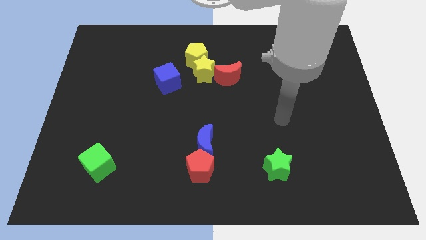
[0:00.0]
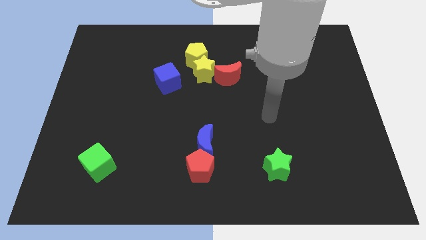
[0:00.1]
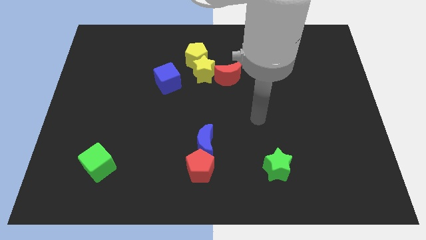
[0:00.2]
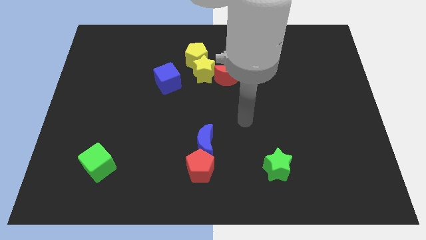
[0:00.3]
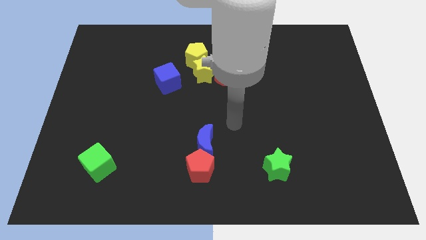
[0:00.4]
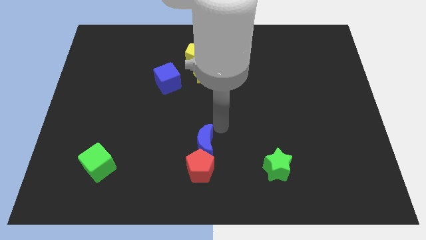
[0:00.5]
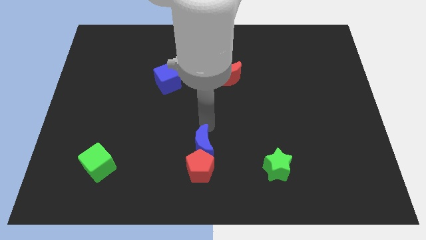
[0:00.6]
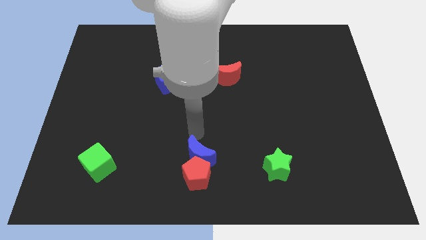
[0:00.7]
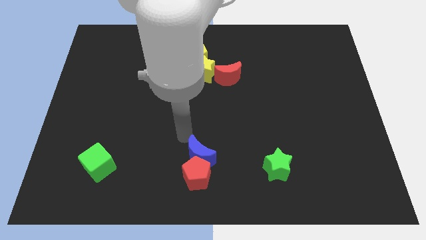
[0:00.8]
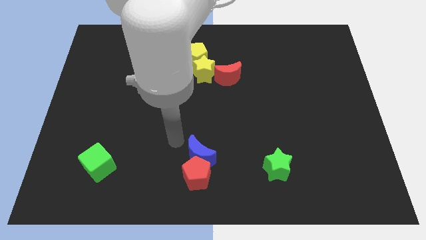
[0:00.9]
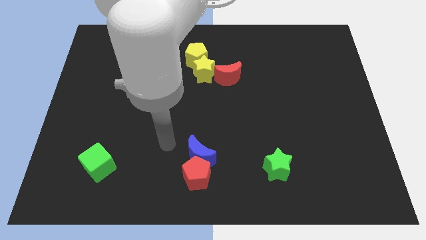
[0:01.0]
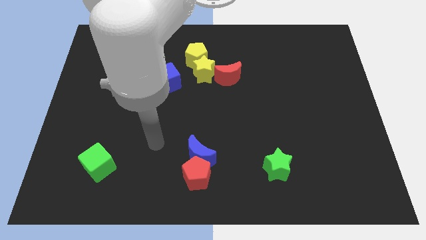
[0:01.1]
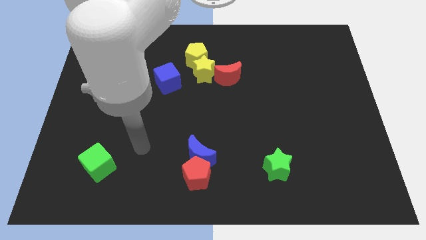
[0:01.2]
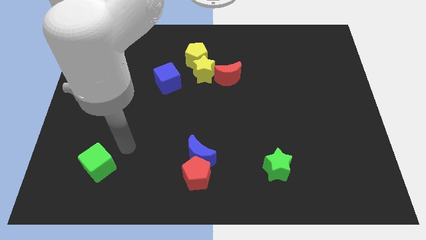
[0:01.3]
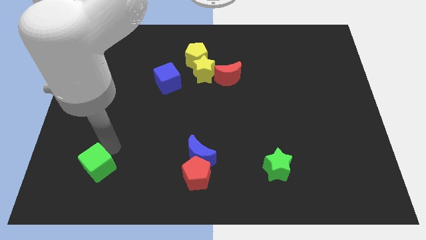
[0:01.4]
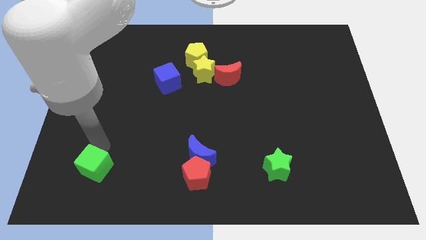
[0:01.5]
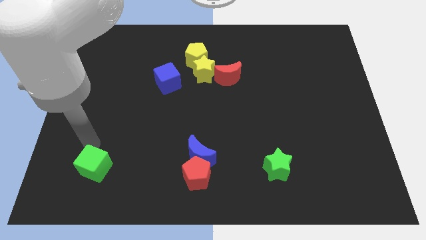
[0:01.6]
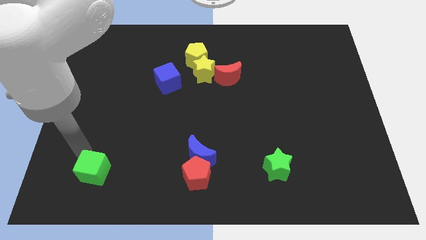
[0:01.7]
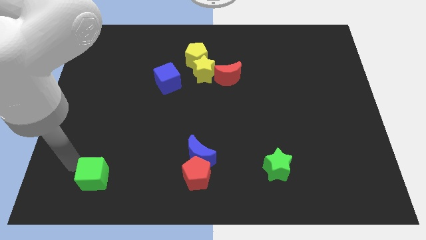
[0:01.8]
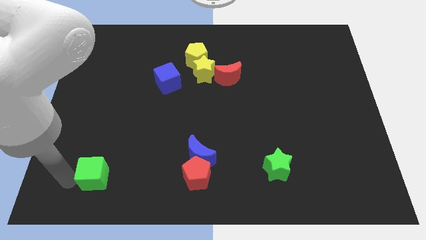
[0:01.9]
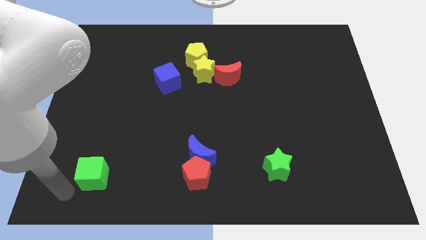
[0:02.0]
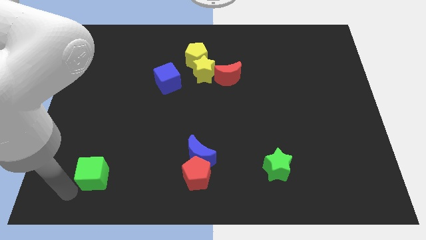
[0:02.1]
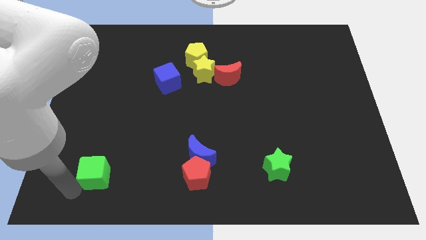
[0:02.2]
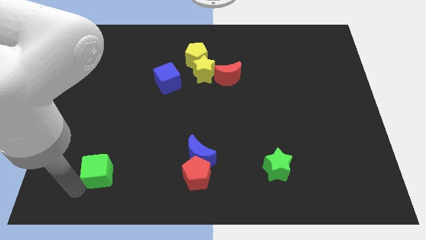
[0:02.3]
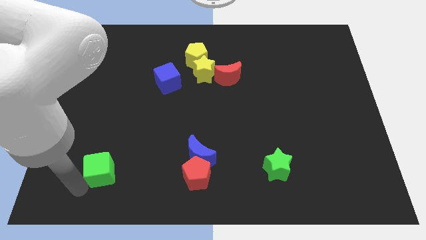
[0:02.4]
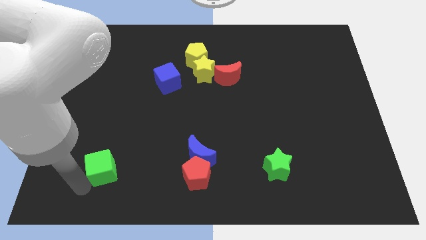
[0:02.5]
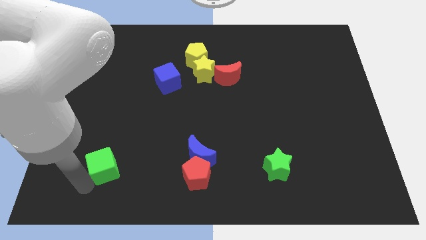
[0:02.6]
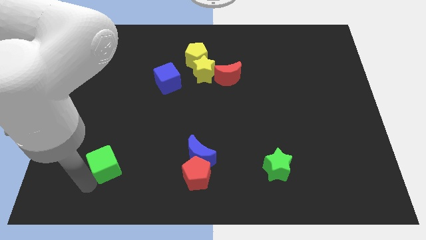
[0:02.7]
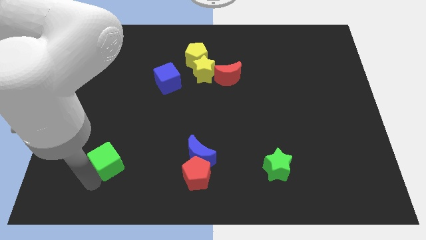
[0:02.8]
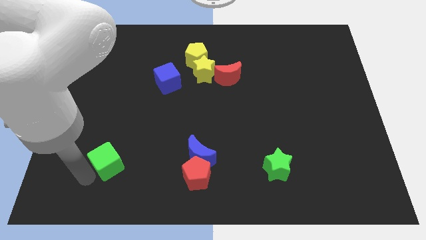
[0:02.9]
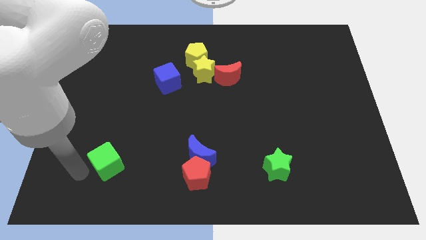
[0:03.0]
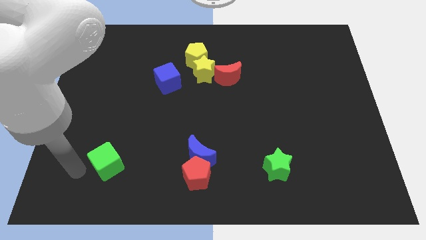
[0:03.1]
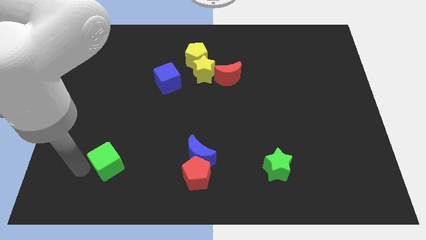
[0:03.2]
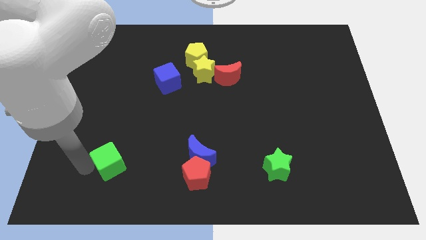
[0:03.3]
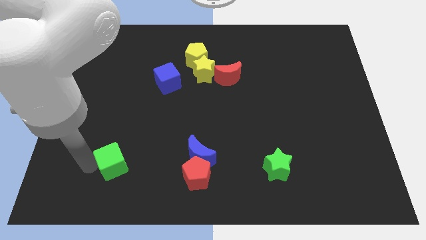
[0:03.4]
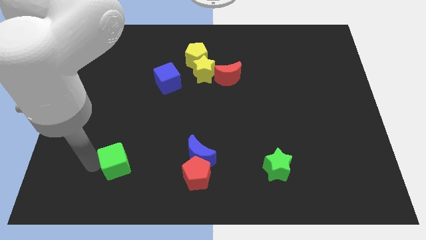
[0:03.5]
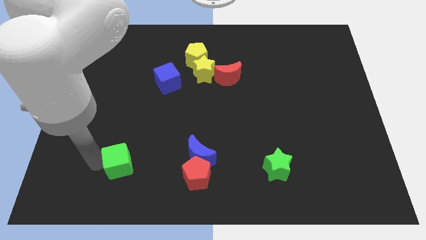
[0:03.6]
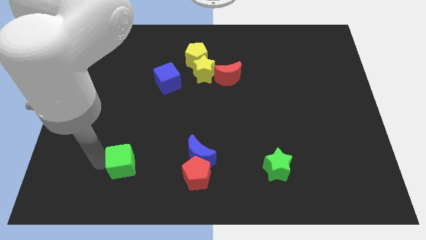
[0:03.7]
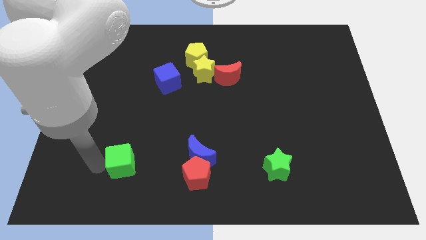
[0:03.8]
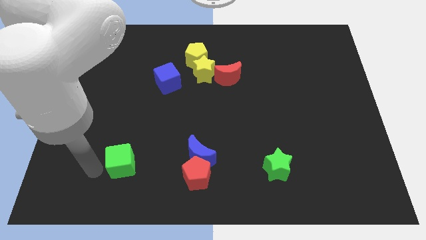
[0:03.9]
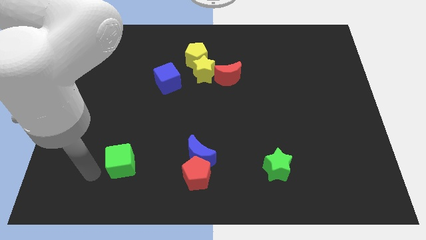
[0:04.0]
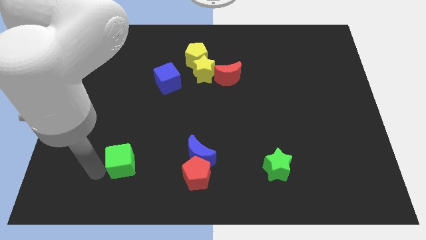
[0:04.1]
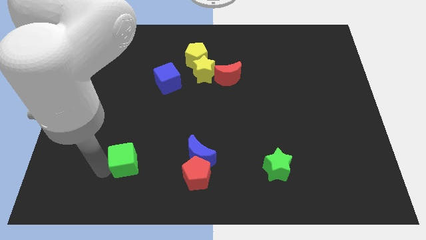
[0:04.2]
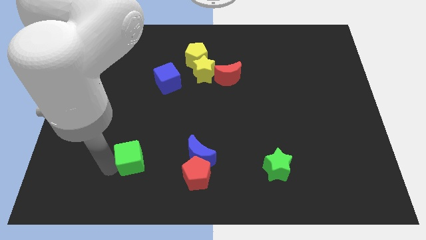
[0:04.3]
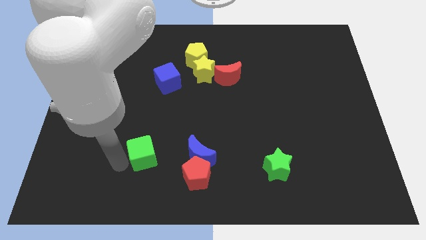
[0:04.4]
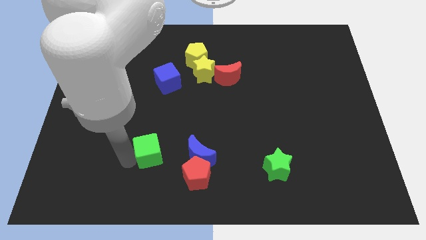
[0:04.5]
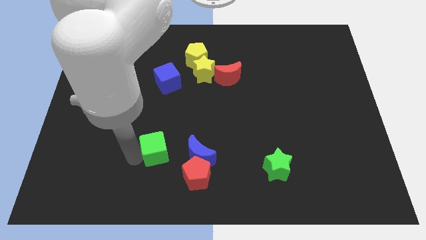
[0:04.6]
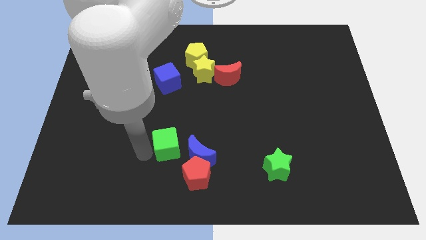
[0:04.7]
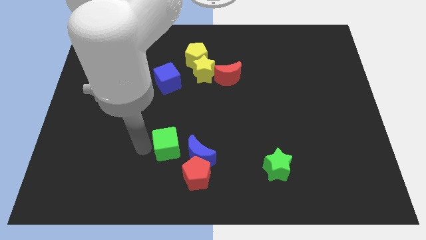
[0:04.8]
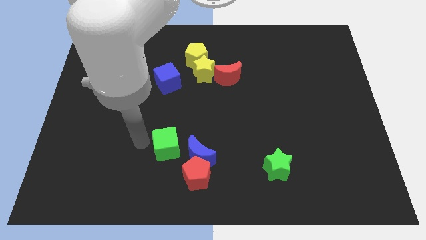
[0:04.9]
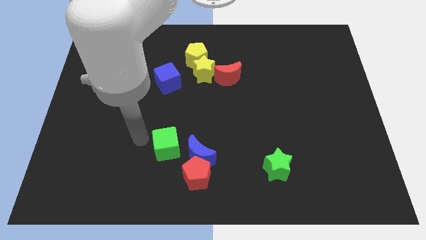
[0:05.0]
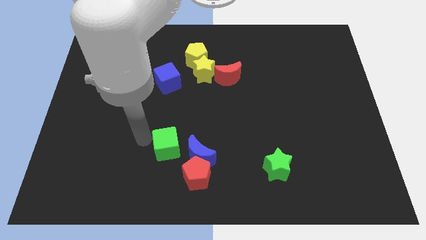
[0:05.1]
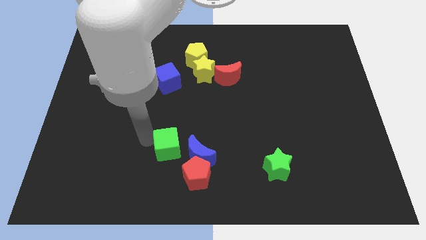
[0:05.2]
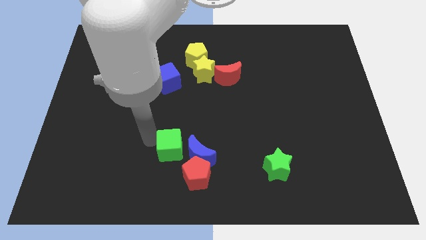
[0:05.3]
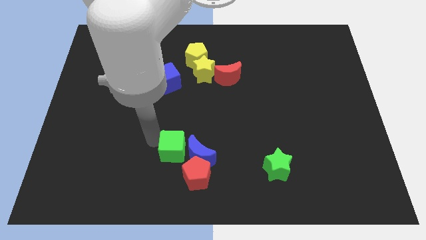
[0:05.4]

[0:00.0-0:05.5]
move the green cube to the blue moon

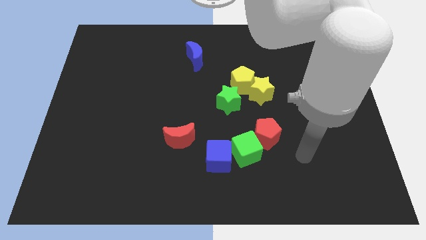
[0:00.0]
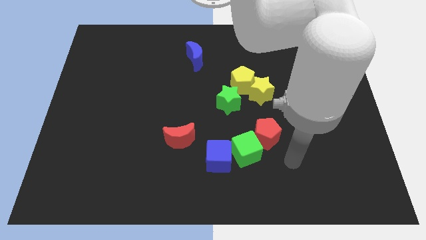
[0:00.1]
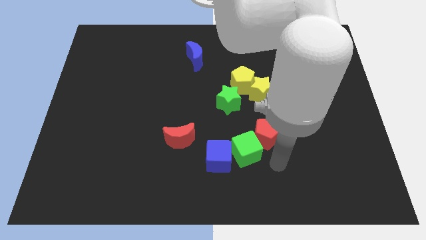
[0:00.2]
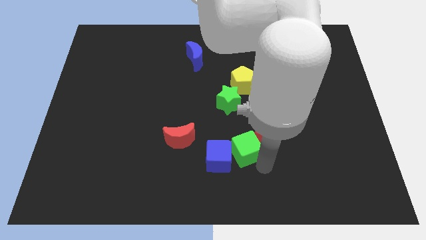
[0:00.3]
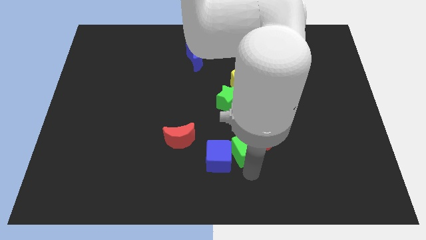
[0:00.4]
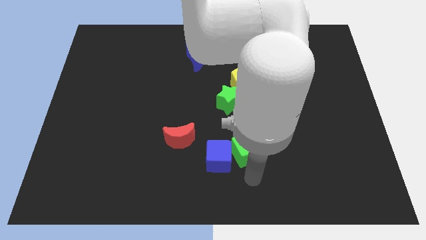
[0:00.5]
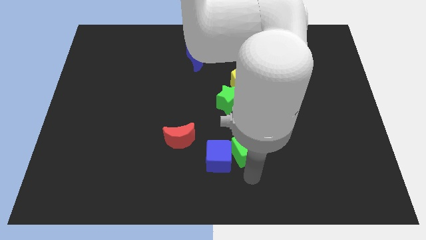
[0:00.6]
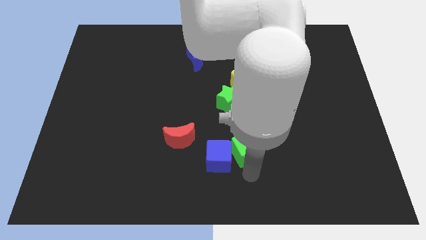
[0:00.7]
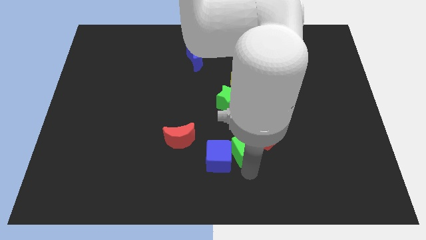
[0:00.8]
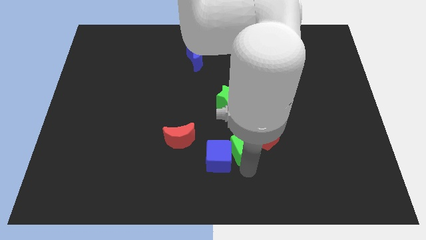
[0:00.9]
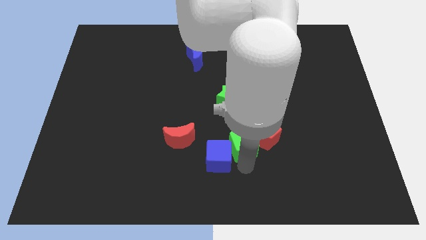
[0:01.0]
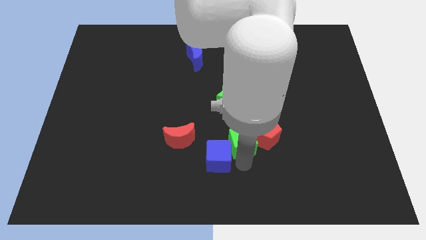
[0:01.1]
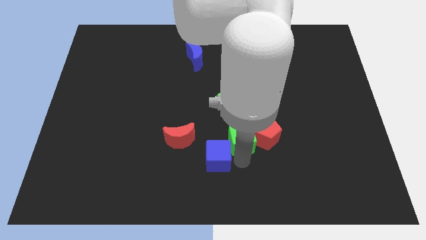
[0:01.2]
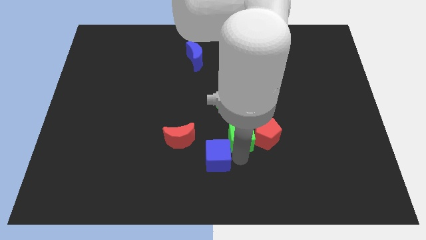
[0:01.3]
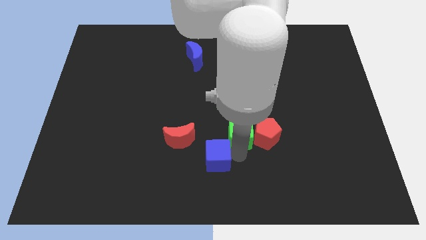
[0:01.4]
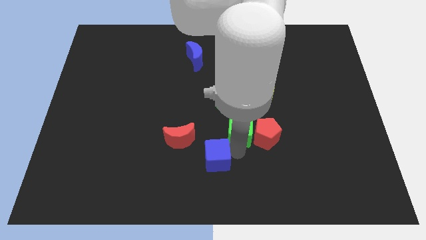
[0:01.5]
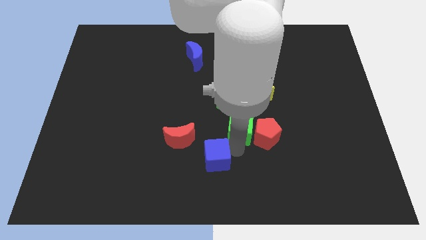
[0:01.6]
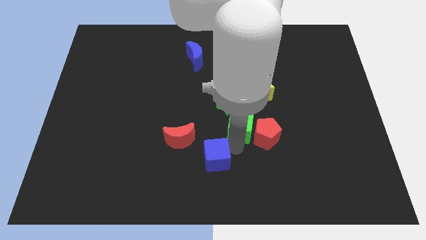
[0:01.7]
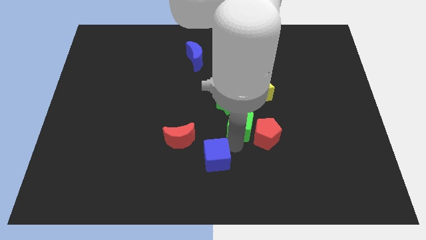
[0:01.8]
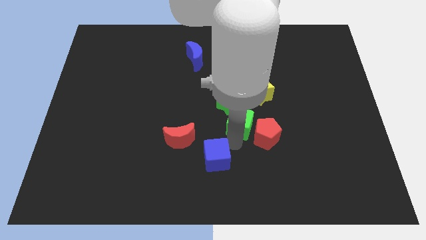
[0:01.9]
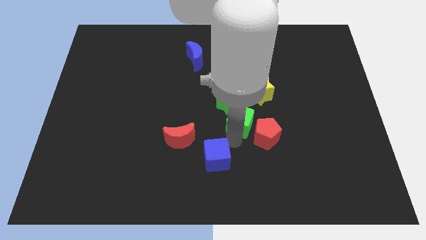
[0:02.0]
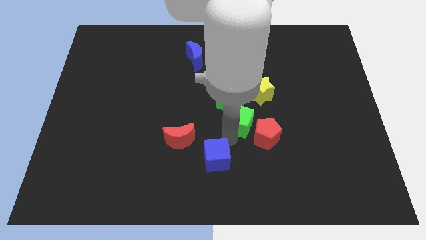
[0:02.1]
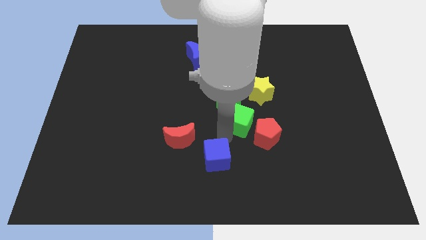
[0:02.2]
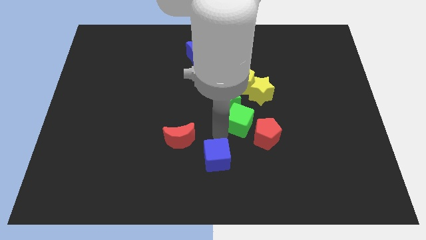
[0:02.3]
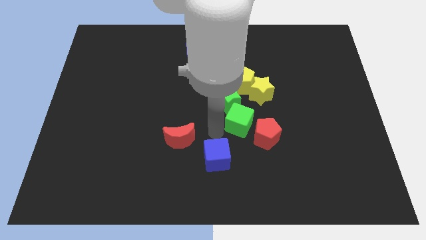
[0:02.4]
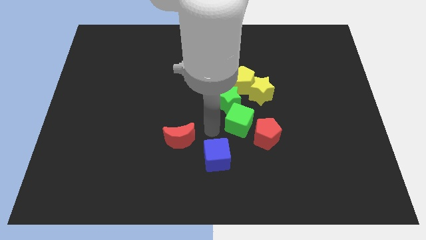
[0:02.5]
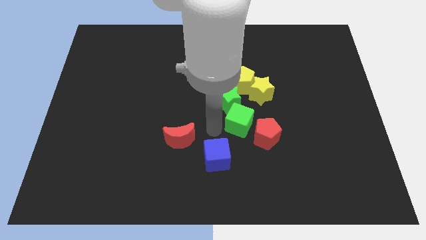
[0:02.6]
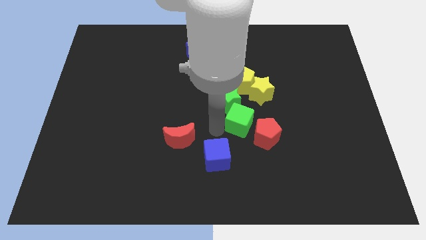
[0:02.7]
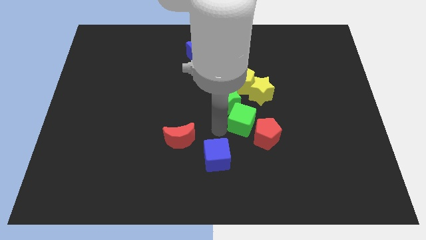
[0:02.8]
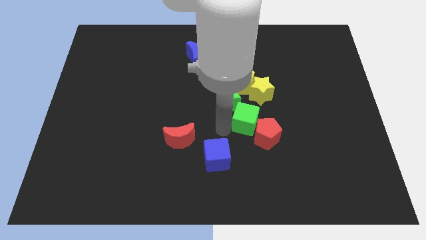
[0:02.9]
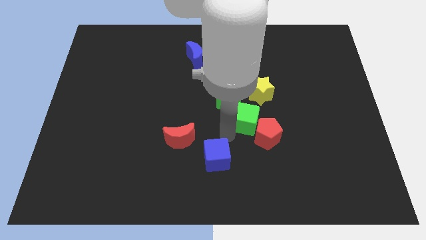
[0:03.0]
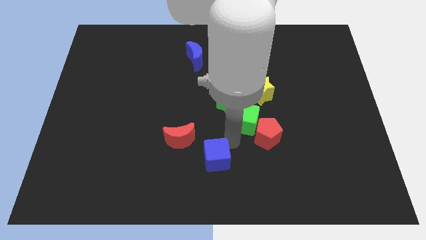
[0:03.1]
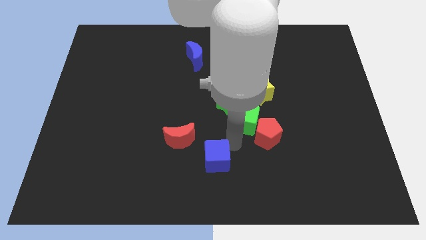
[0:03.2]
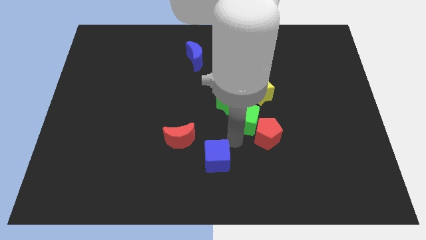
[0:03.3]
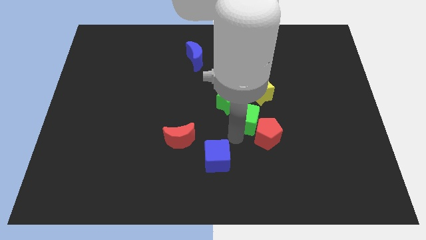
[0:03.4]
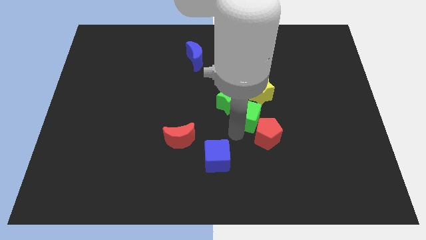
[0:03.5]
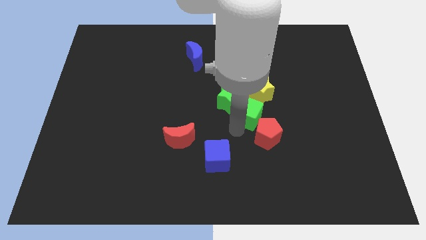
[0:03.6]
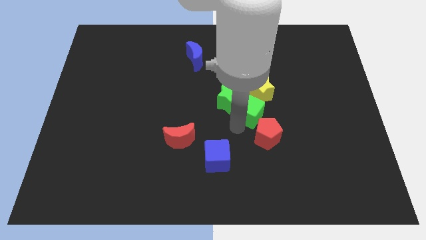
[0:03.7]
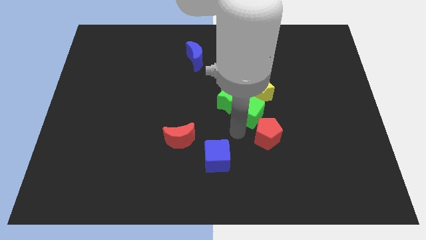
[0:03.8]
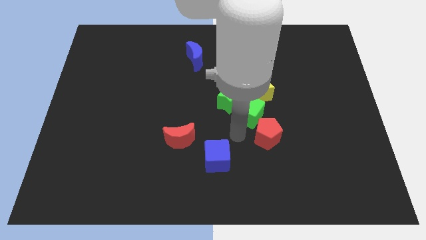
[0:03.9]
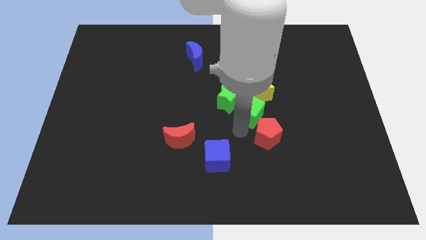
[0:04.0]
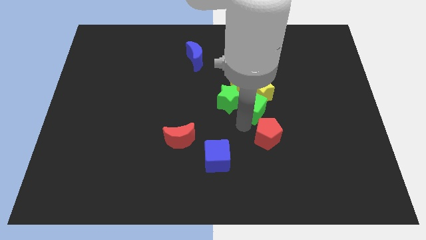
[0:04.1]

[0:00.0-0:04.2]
put the green cube close to the yellow star
